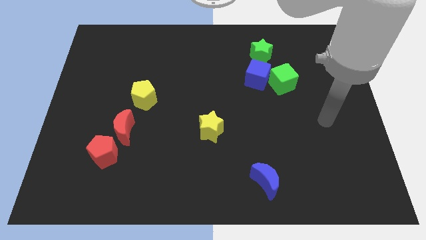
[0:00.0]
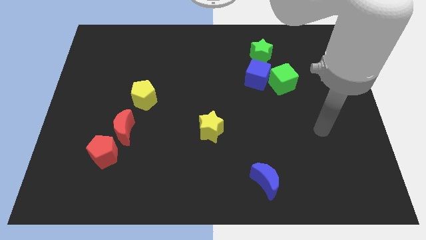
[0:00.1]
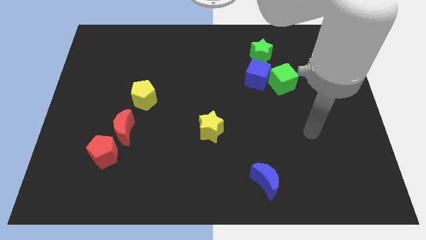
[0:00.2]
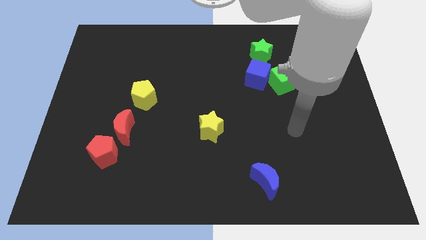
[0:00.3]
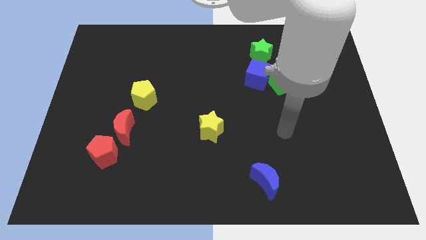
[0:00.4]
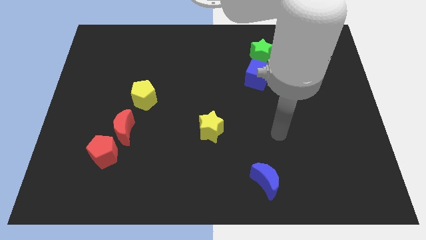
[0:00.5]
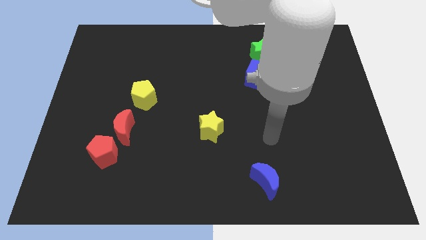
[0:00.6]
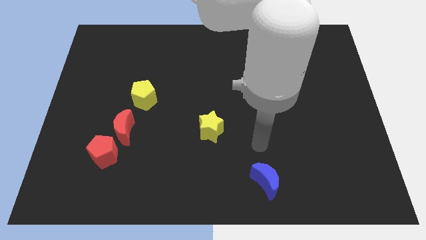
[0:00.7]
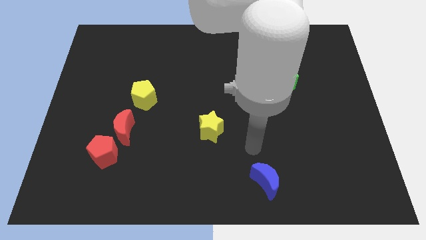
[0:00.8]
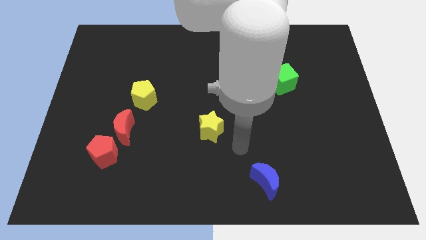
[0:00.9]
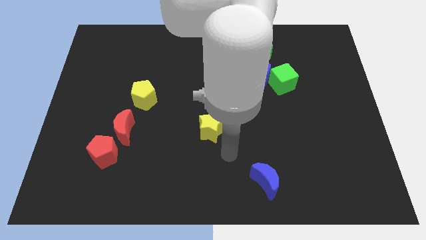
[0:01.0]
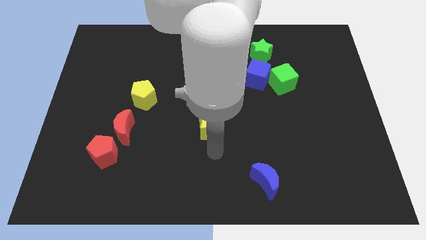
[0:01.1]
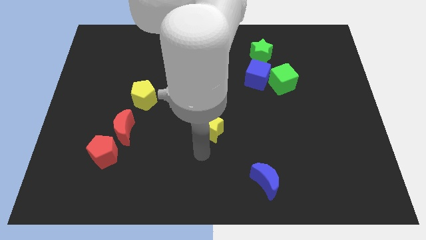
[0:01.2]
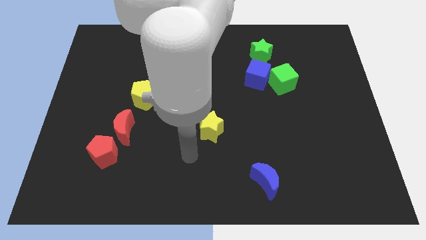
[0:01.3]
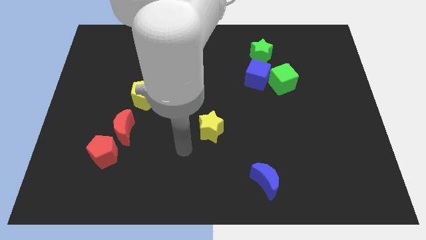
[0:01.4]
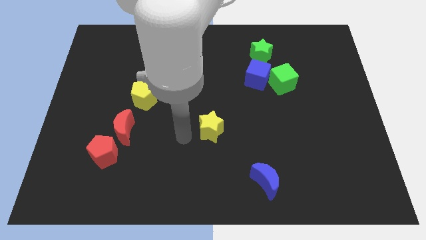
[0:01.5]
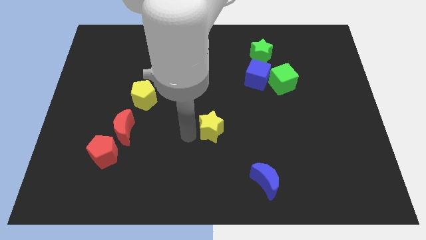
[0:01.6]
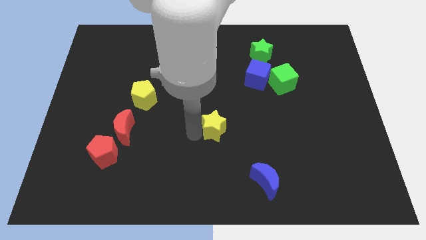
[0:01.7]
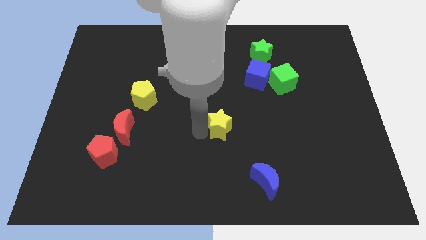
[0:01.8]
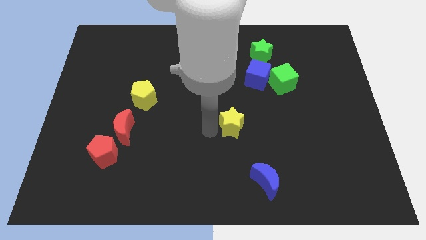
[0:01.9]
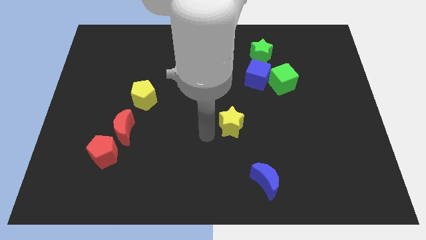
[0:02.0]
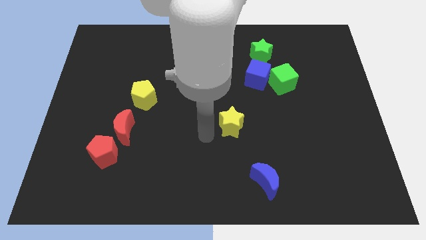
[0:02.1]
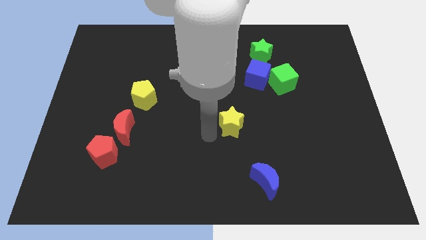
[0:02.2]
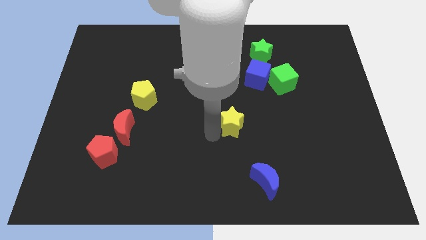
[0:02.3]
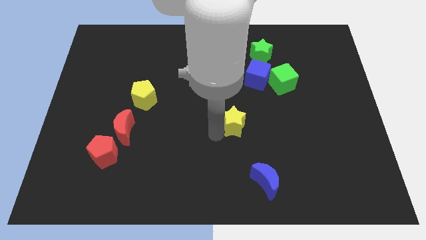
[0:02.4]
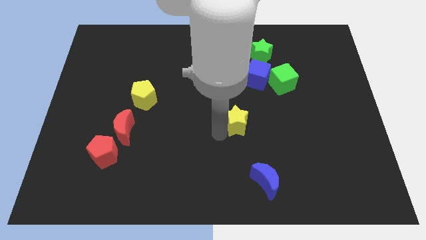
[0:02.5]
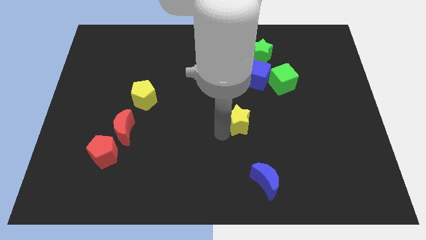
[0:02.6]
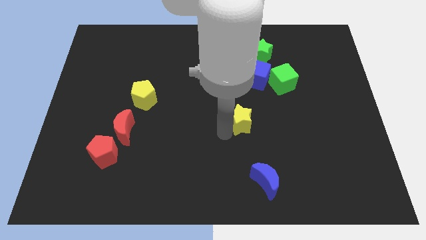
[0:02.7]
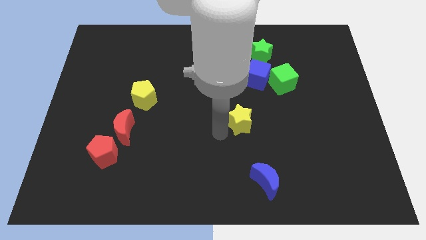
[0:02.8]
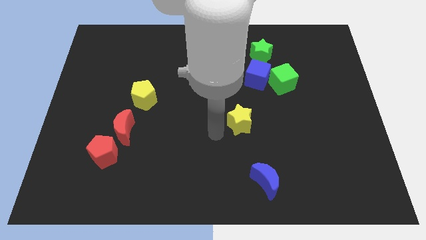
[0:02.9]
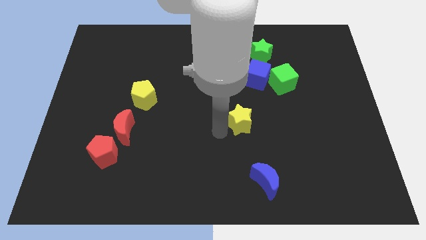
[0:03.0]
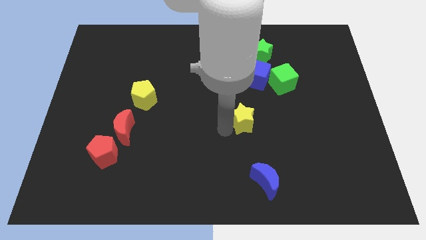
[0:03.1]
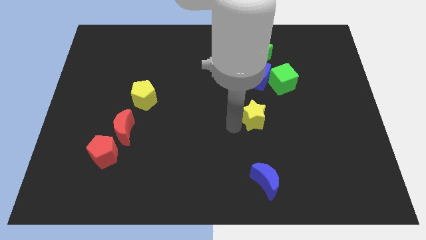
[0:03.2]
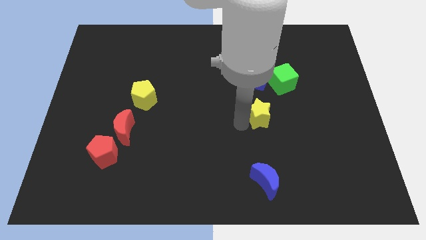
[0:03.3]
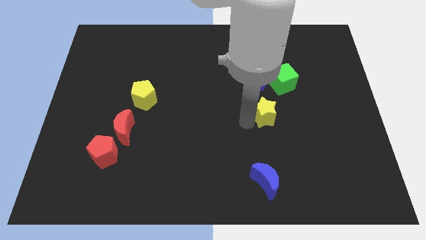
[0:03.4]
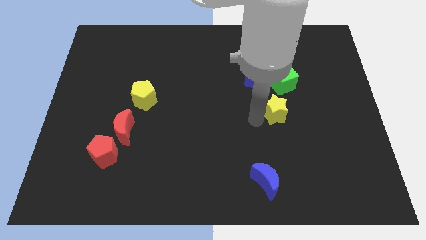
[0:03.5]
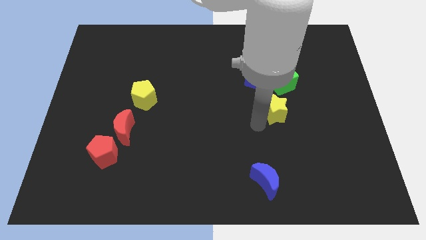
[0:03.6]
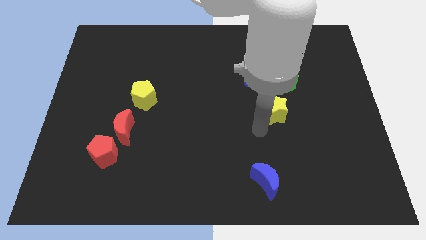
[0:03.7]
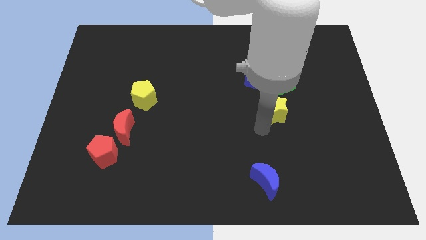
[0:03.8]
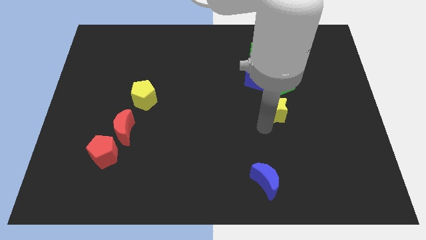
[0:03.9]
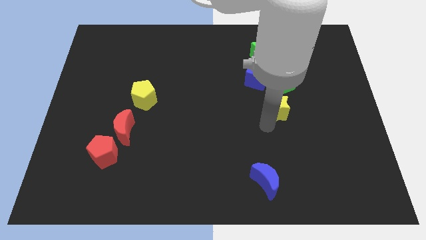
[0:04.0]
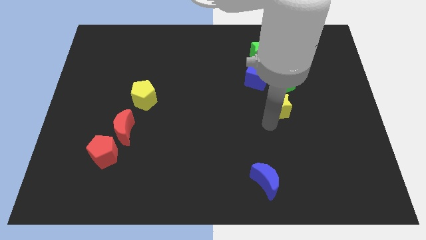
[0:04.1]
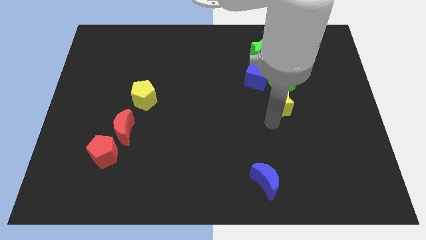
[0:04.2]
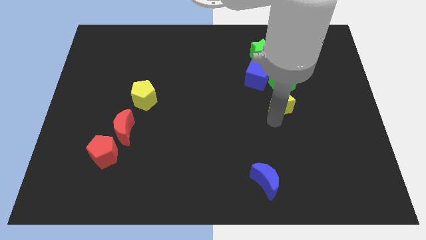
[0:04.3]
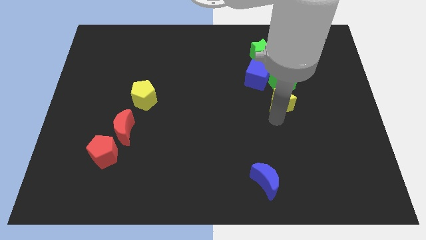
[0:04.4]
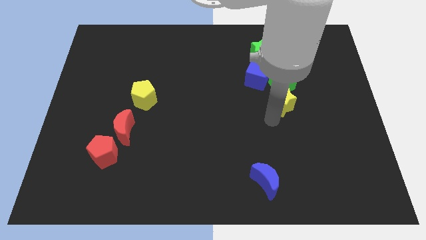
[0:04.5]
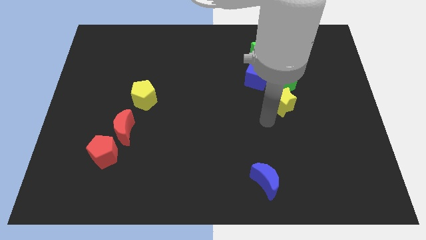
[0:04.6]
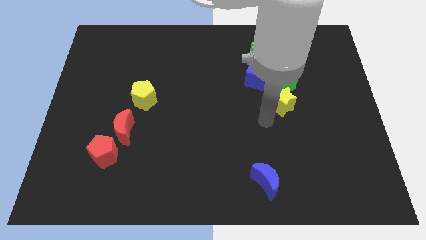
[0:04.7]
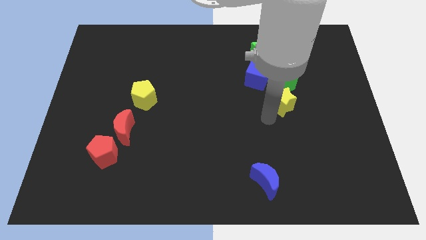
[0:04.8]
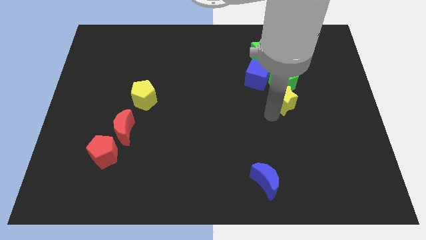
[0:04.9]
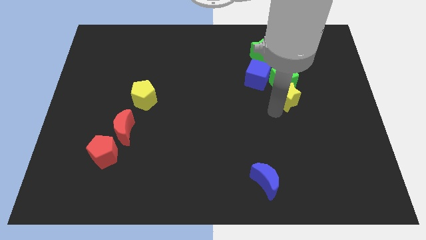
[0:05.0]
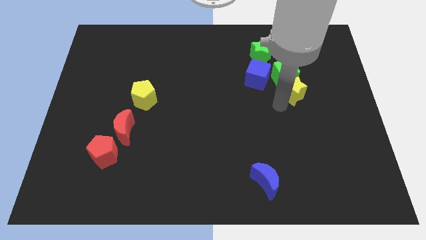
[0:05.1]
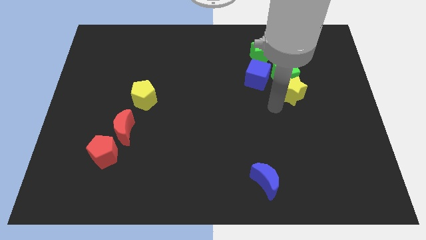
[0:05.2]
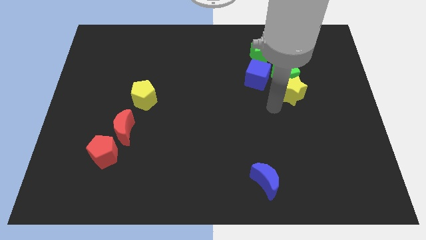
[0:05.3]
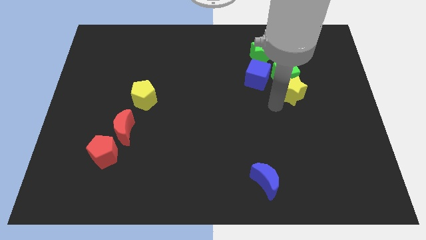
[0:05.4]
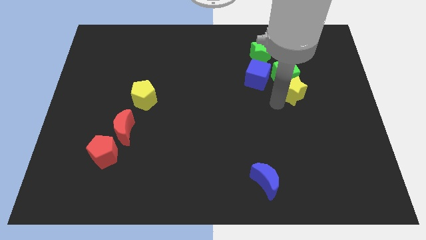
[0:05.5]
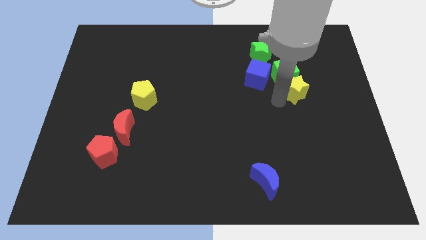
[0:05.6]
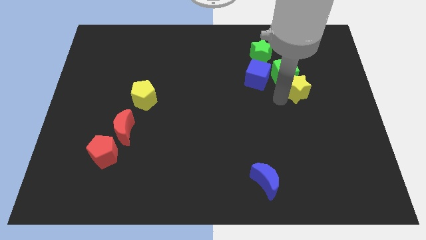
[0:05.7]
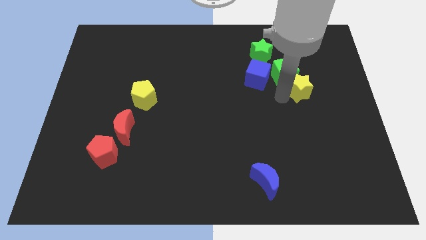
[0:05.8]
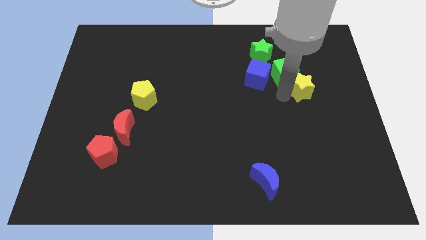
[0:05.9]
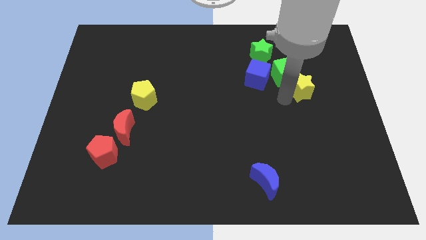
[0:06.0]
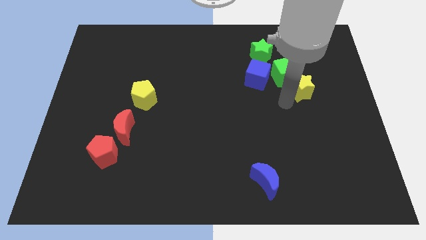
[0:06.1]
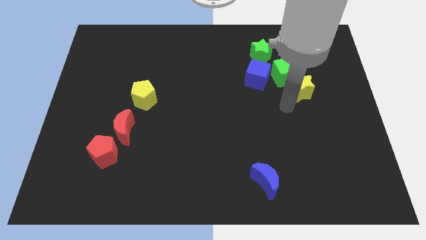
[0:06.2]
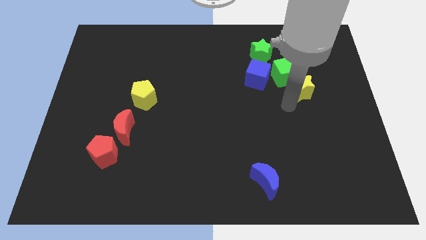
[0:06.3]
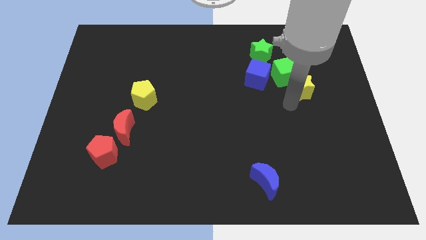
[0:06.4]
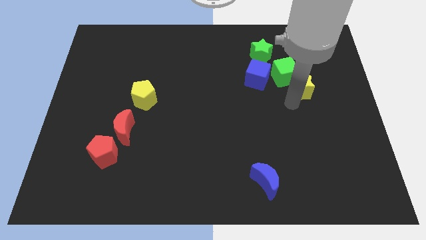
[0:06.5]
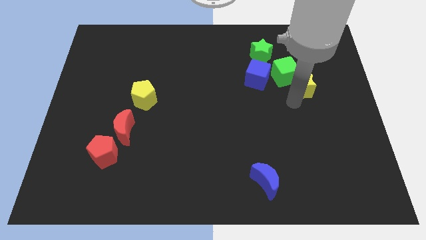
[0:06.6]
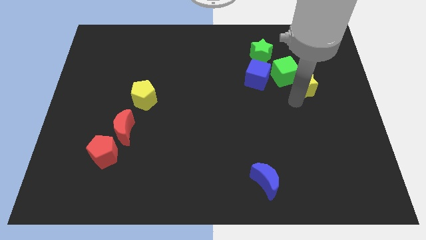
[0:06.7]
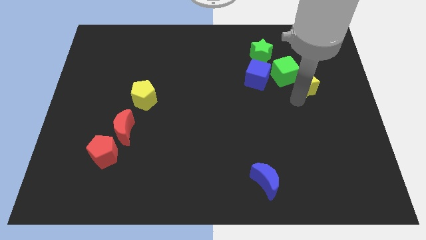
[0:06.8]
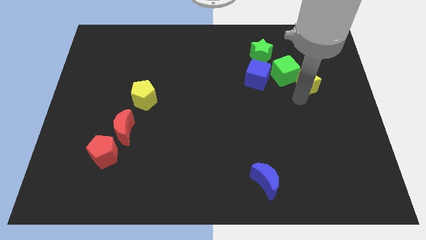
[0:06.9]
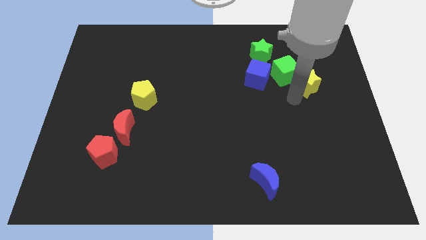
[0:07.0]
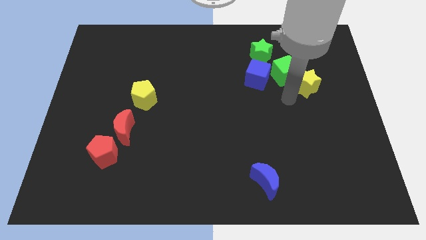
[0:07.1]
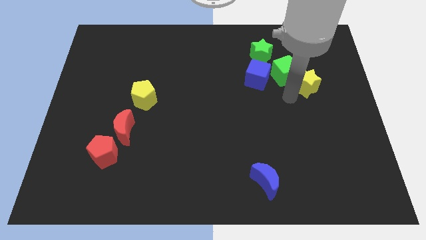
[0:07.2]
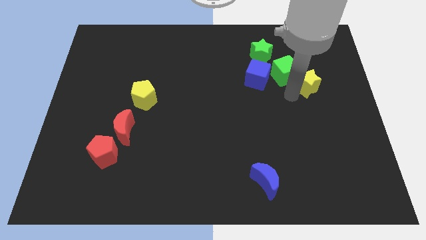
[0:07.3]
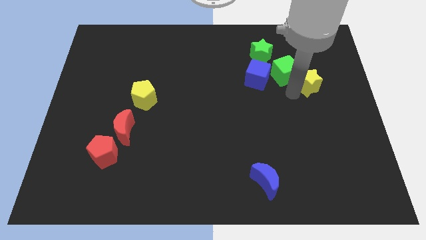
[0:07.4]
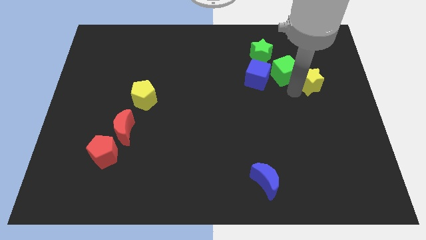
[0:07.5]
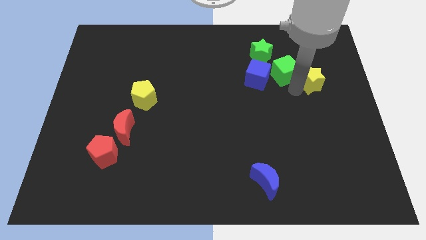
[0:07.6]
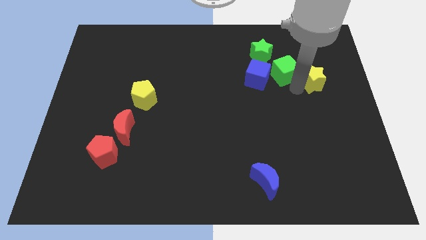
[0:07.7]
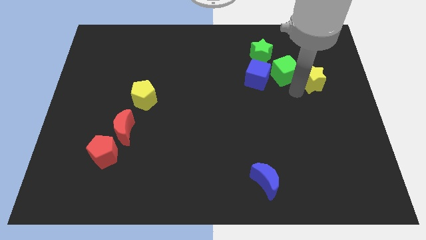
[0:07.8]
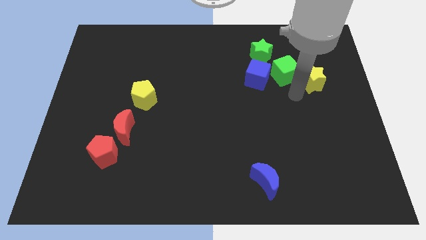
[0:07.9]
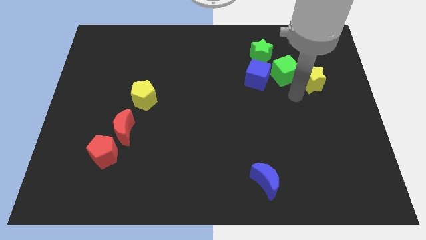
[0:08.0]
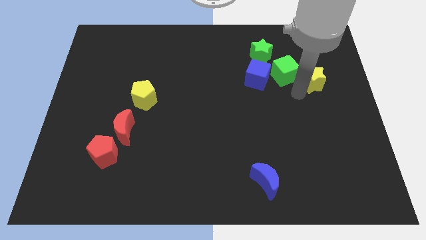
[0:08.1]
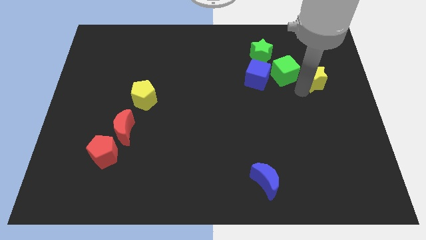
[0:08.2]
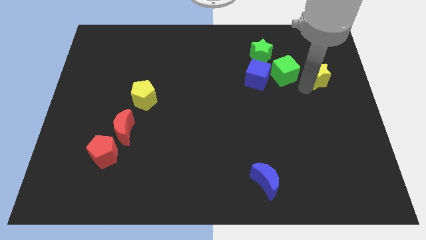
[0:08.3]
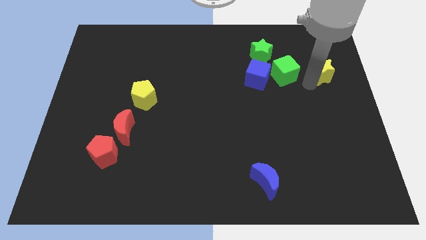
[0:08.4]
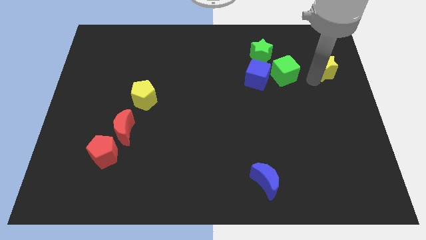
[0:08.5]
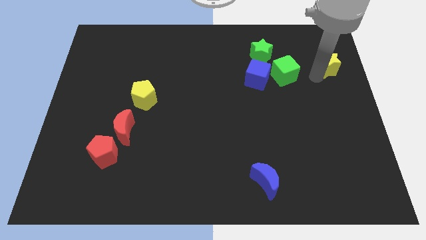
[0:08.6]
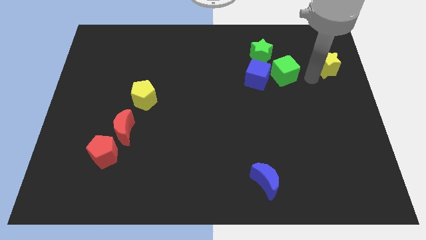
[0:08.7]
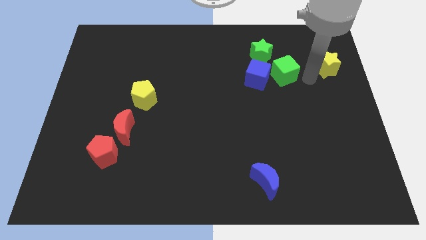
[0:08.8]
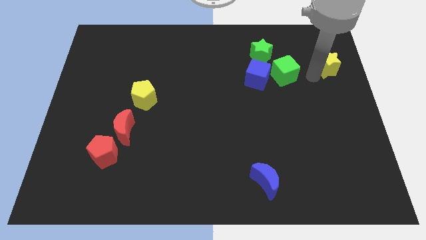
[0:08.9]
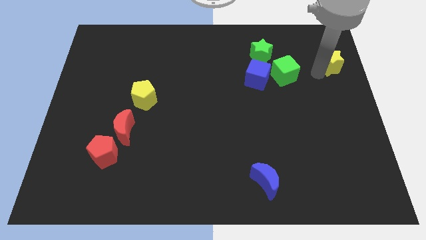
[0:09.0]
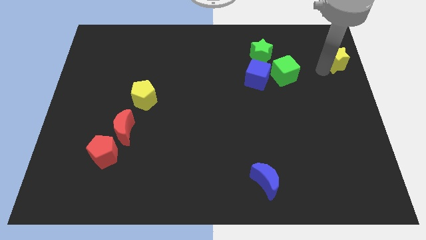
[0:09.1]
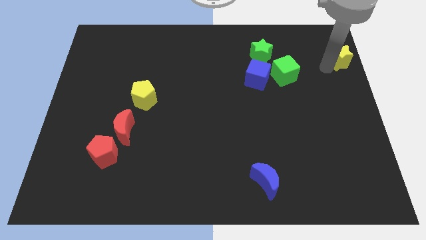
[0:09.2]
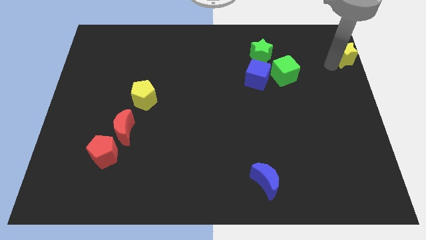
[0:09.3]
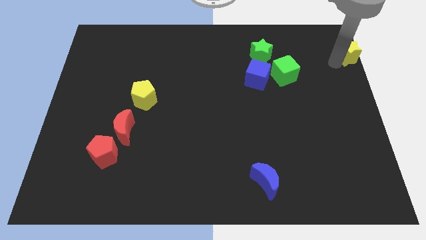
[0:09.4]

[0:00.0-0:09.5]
move the yellow star to the upper right corner
